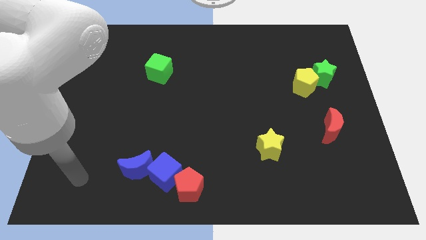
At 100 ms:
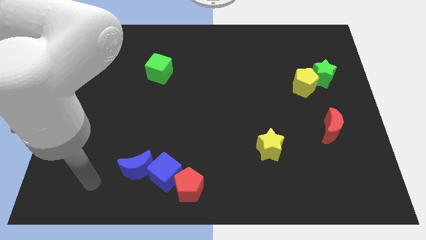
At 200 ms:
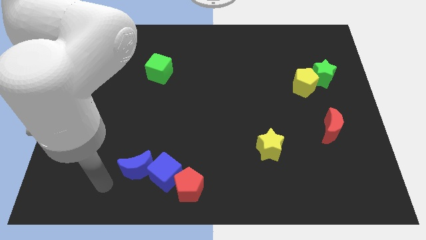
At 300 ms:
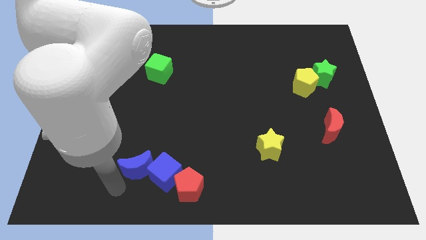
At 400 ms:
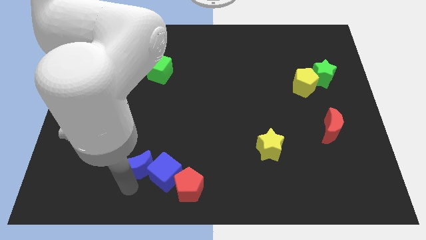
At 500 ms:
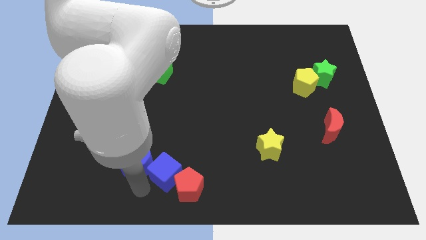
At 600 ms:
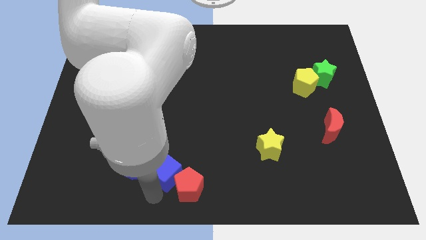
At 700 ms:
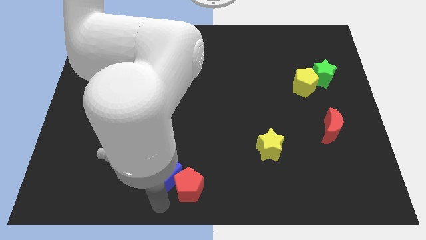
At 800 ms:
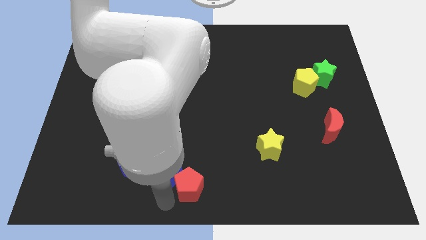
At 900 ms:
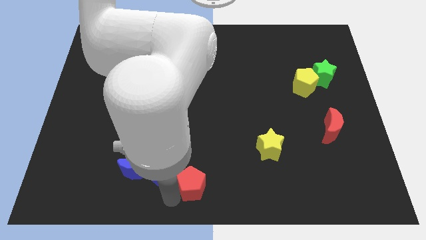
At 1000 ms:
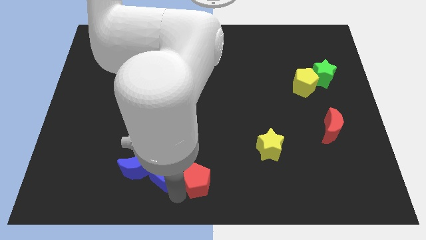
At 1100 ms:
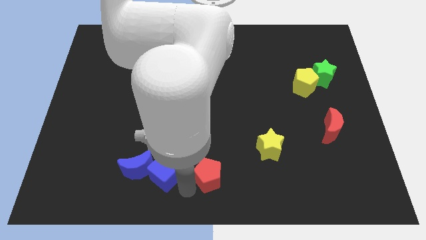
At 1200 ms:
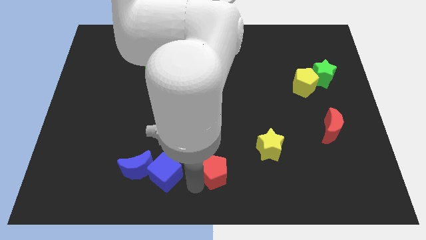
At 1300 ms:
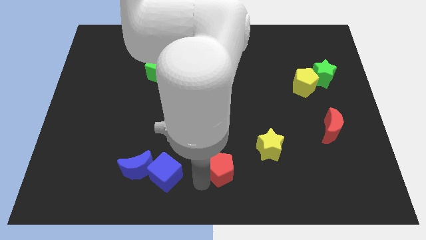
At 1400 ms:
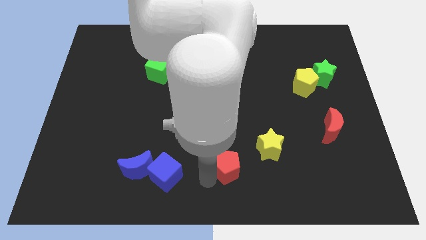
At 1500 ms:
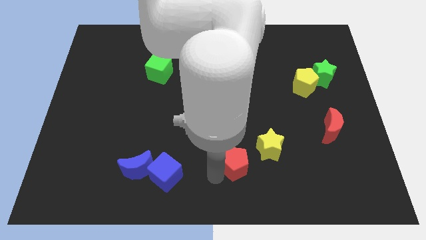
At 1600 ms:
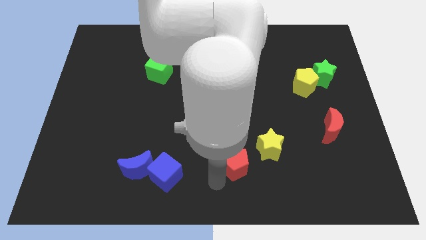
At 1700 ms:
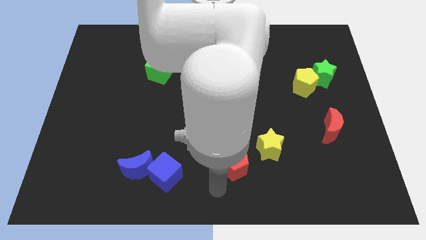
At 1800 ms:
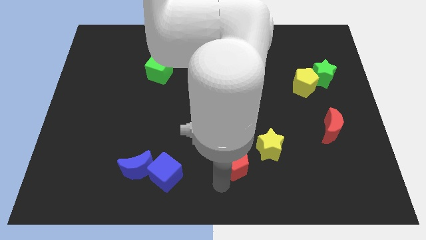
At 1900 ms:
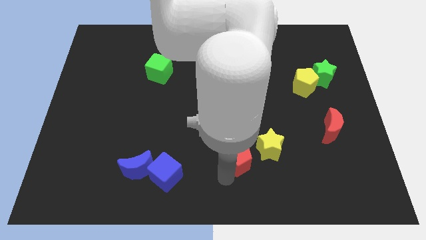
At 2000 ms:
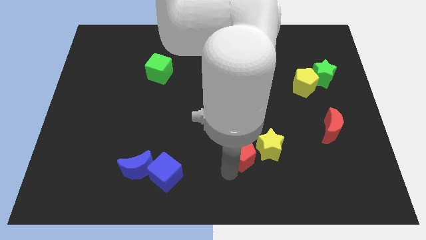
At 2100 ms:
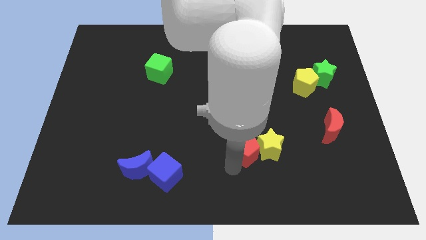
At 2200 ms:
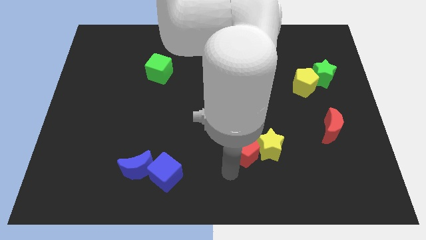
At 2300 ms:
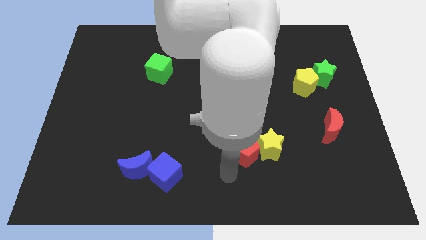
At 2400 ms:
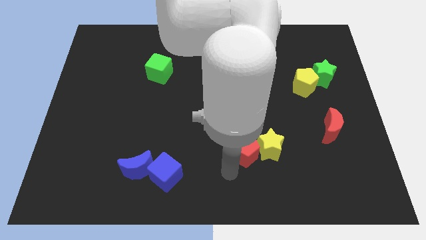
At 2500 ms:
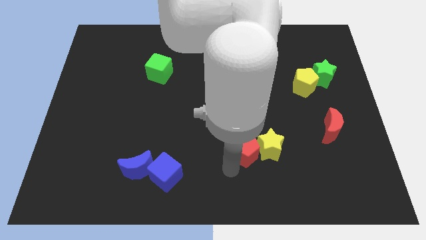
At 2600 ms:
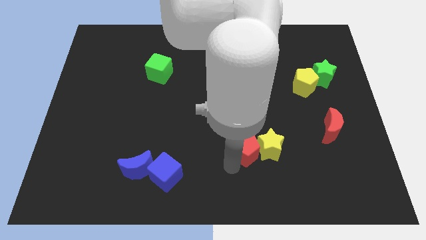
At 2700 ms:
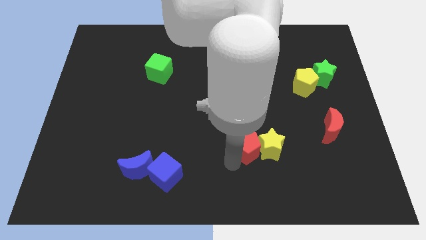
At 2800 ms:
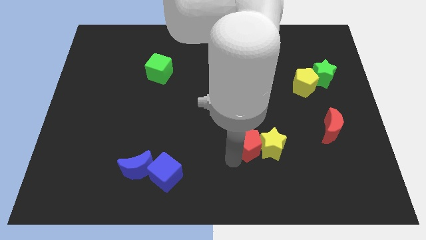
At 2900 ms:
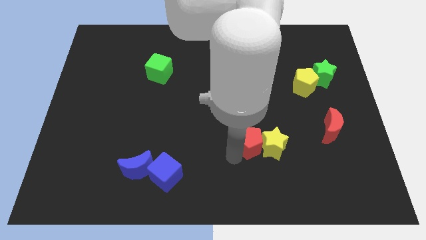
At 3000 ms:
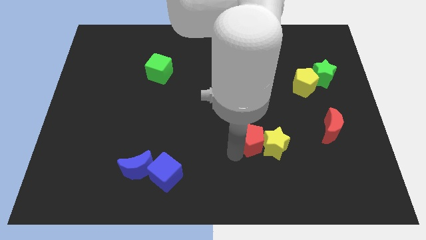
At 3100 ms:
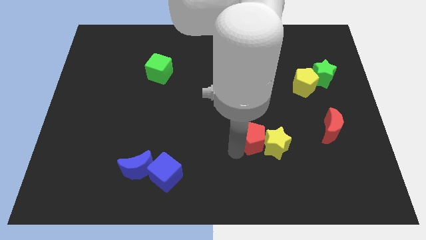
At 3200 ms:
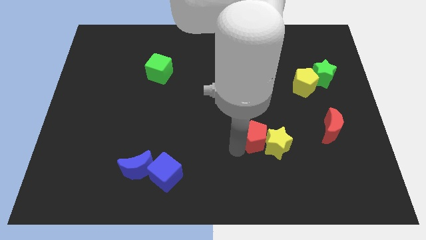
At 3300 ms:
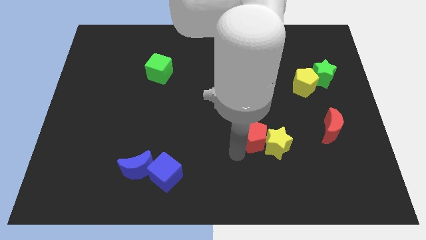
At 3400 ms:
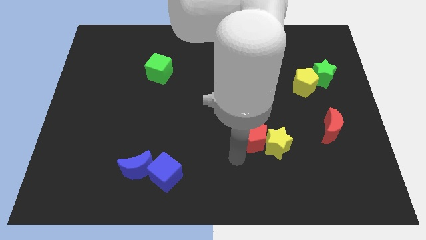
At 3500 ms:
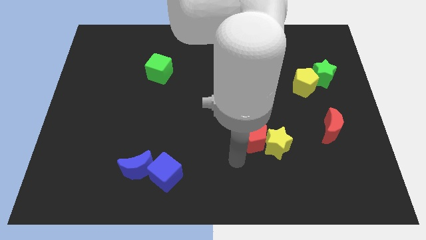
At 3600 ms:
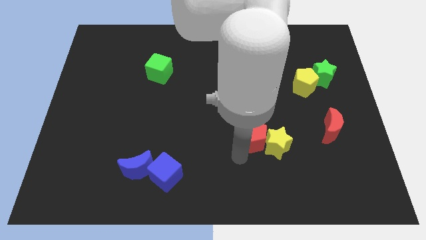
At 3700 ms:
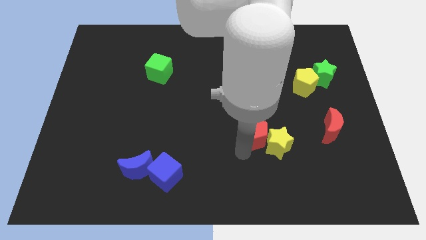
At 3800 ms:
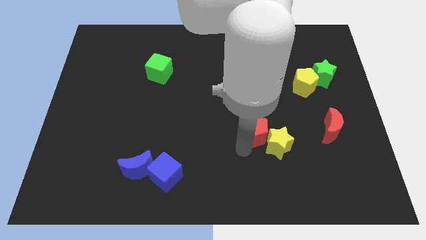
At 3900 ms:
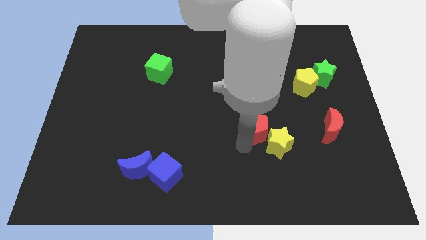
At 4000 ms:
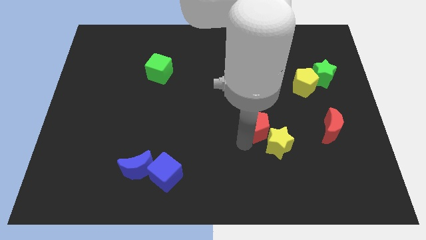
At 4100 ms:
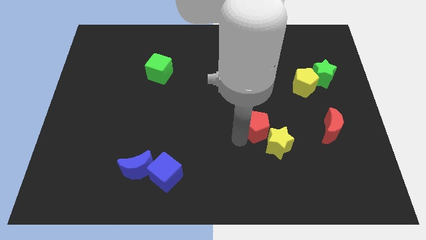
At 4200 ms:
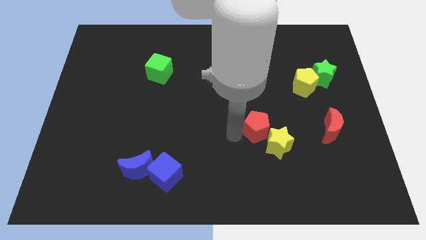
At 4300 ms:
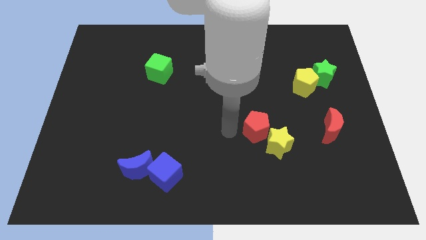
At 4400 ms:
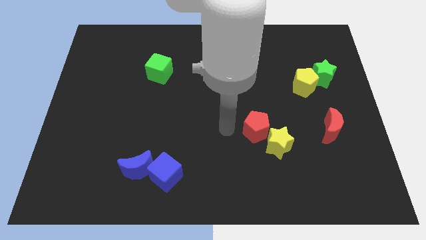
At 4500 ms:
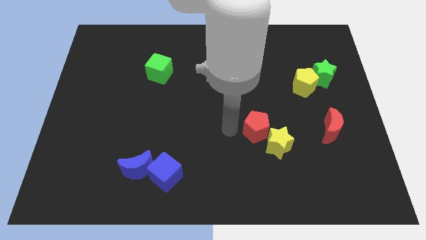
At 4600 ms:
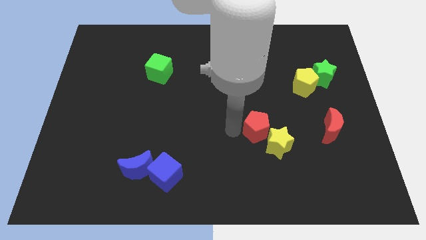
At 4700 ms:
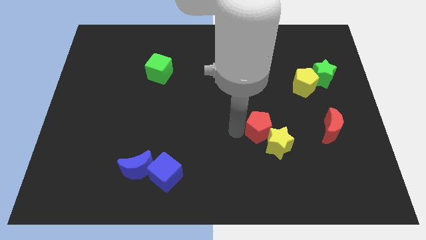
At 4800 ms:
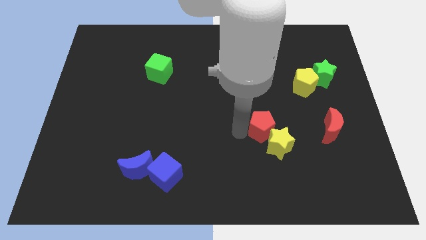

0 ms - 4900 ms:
slide the red pentagon to the left side of the red moon

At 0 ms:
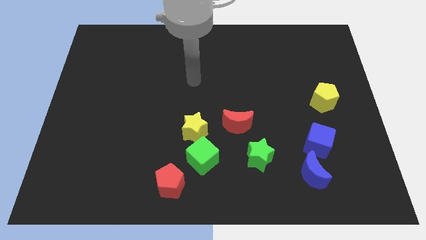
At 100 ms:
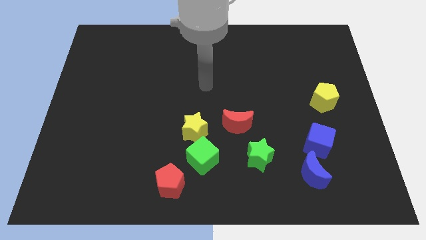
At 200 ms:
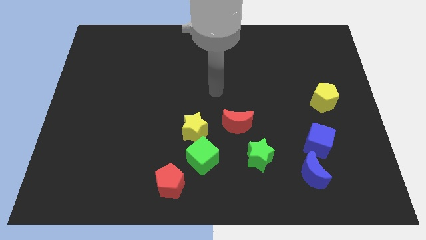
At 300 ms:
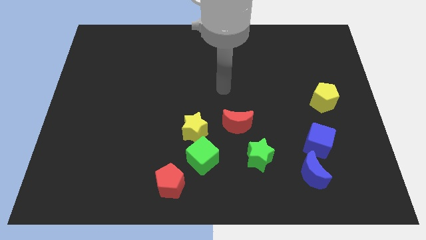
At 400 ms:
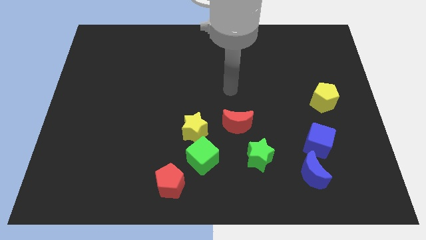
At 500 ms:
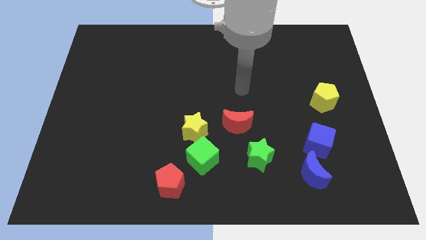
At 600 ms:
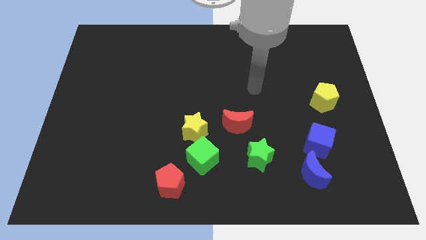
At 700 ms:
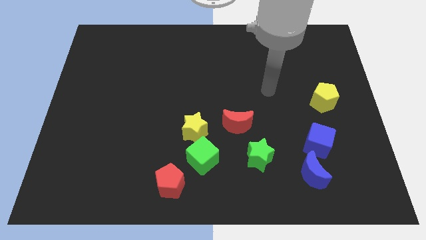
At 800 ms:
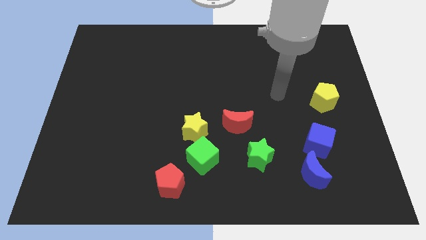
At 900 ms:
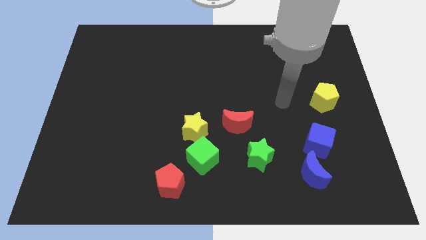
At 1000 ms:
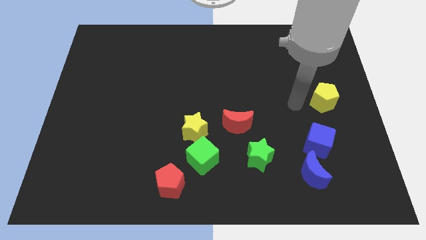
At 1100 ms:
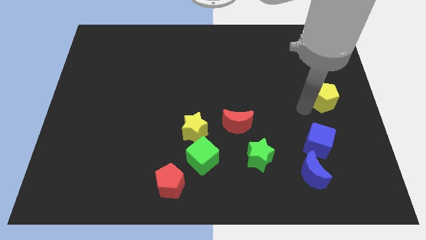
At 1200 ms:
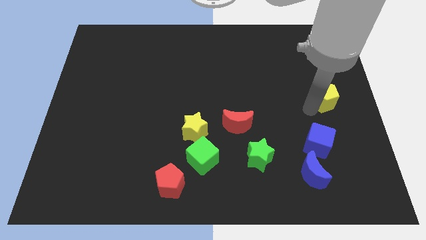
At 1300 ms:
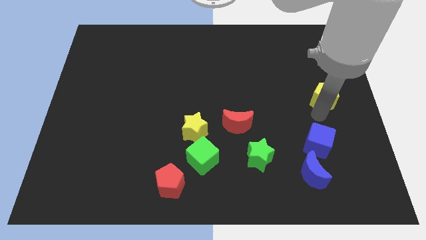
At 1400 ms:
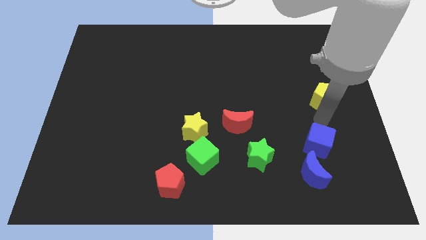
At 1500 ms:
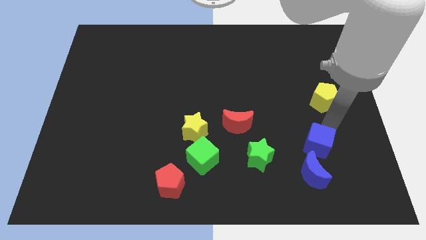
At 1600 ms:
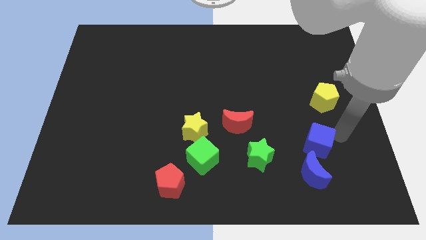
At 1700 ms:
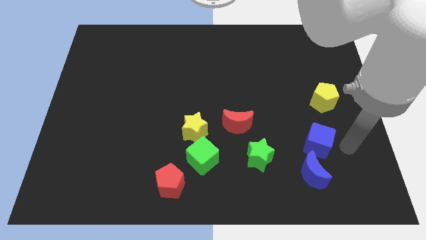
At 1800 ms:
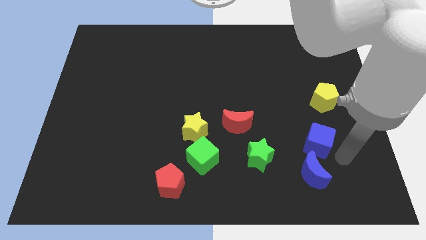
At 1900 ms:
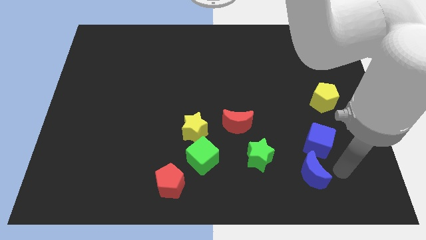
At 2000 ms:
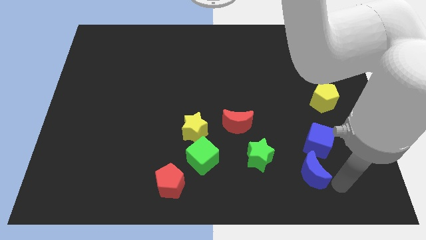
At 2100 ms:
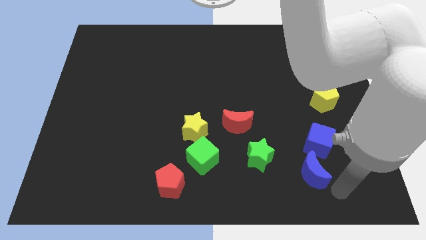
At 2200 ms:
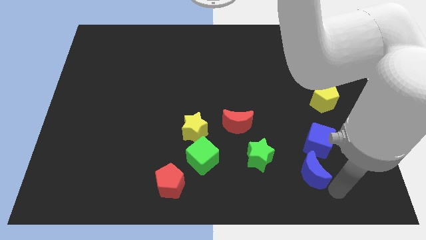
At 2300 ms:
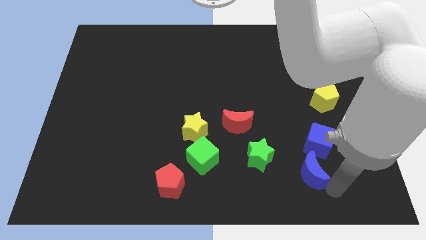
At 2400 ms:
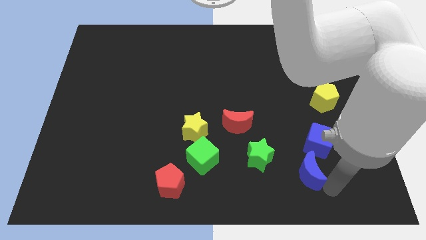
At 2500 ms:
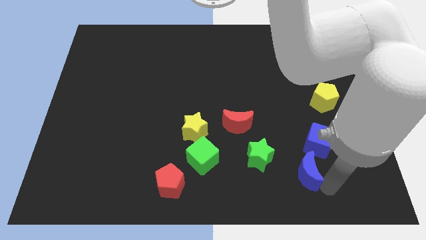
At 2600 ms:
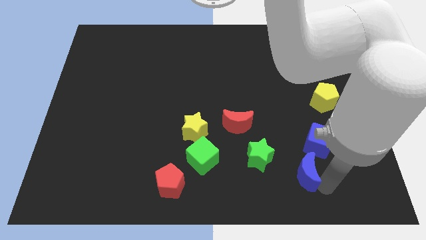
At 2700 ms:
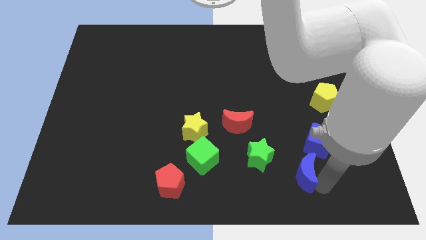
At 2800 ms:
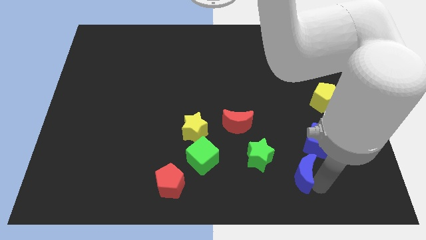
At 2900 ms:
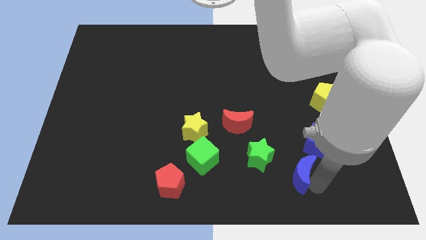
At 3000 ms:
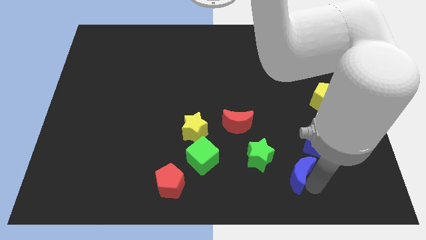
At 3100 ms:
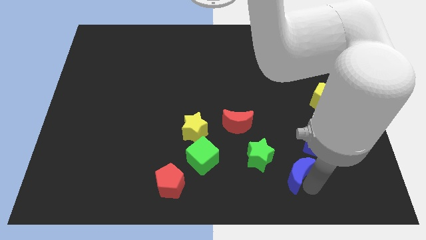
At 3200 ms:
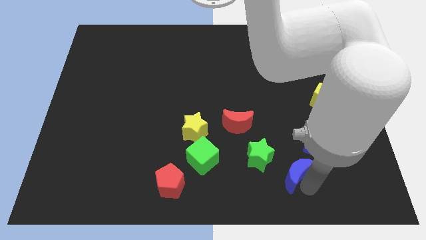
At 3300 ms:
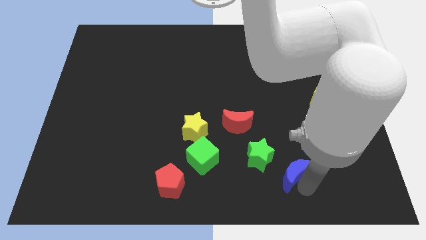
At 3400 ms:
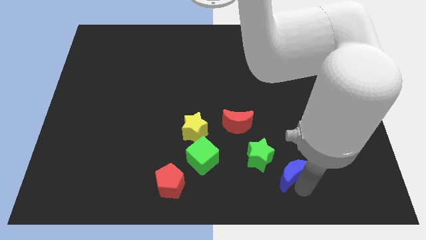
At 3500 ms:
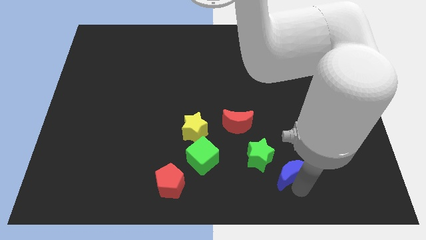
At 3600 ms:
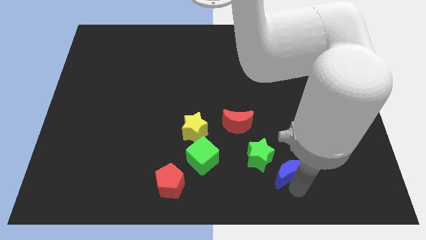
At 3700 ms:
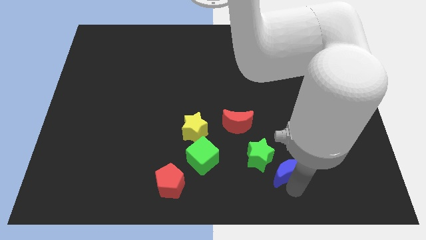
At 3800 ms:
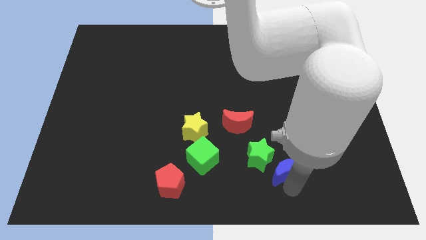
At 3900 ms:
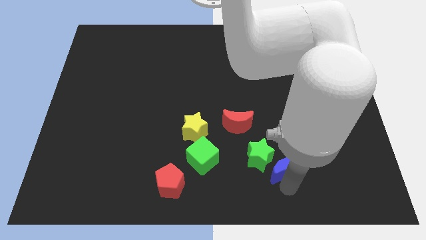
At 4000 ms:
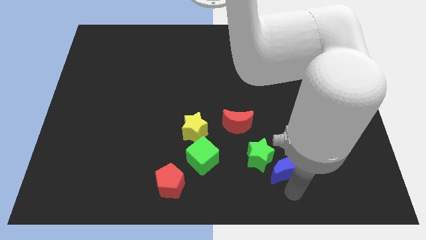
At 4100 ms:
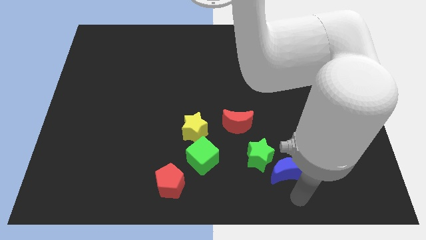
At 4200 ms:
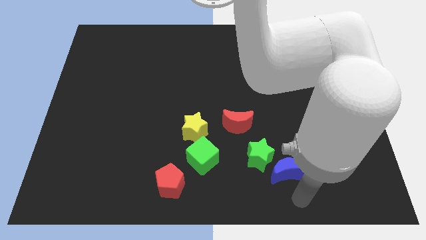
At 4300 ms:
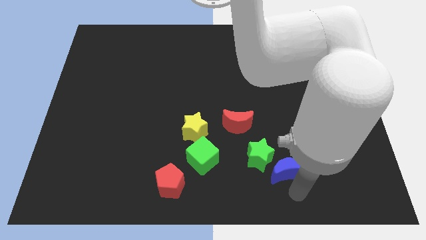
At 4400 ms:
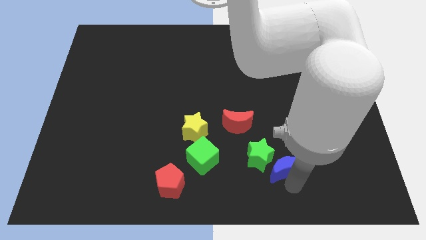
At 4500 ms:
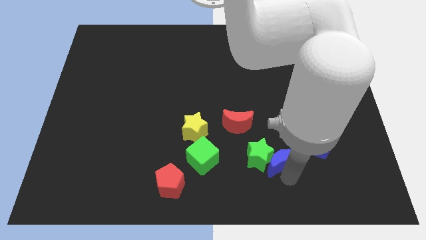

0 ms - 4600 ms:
move the blue moon to the left of the blue cube
